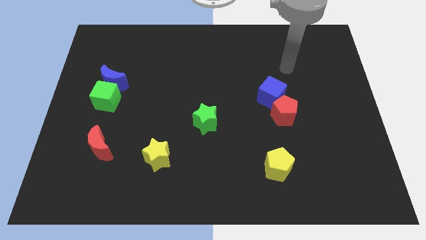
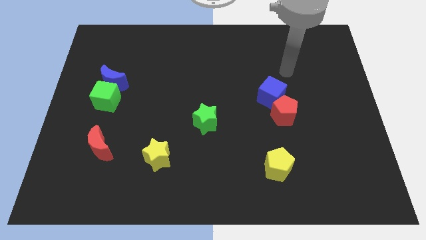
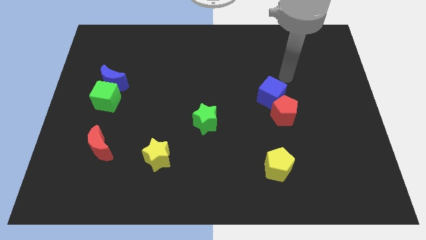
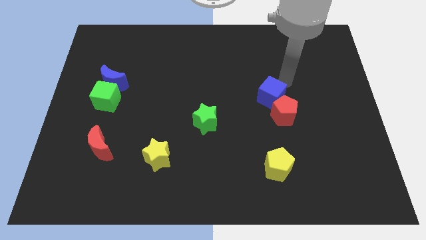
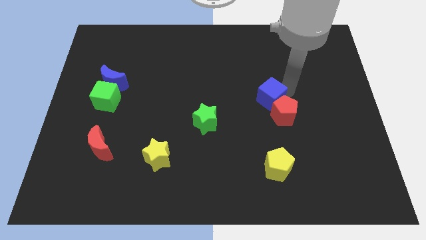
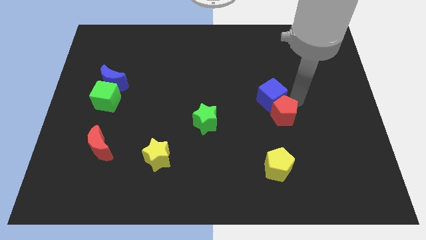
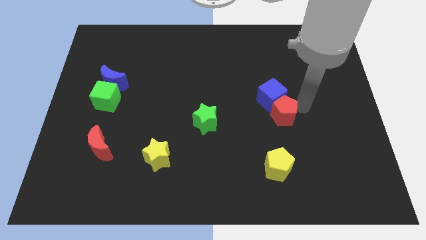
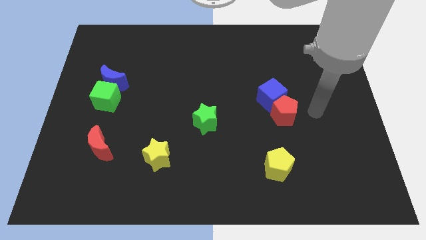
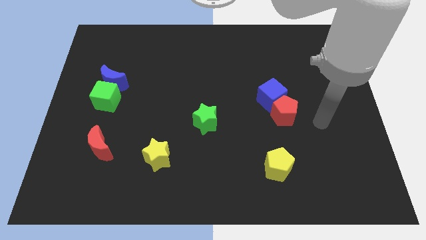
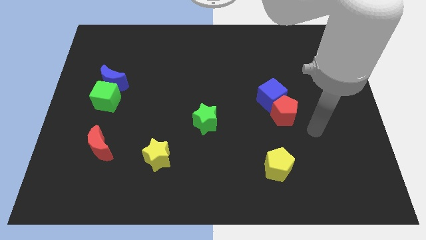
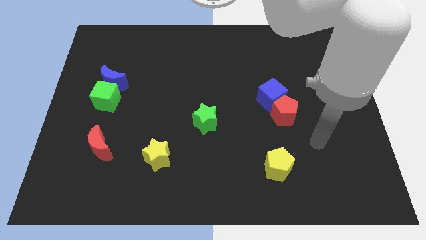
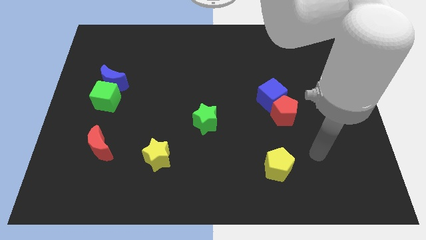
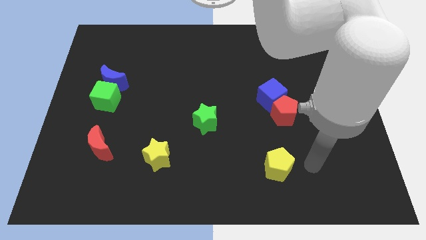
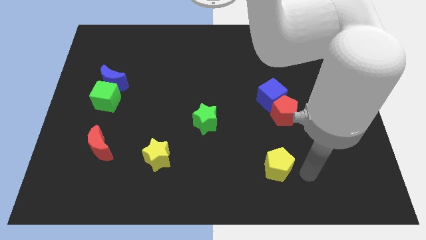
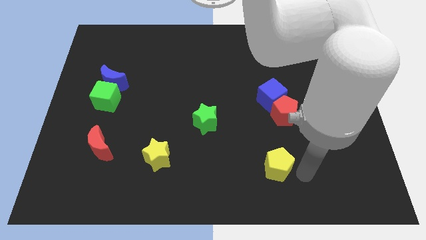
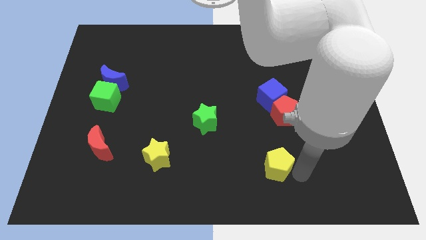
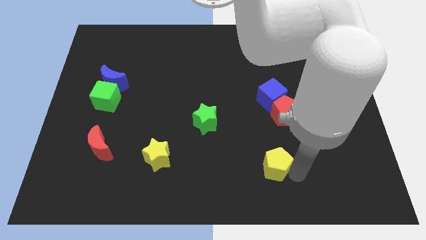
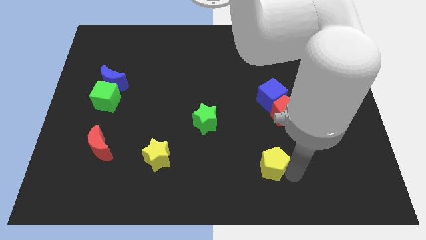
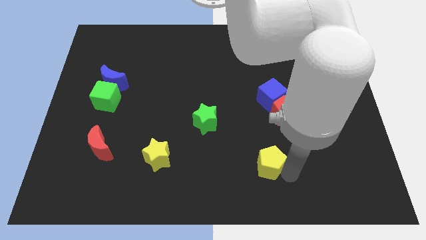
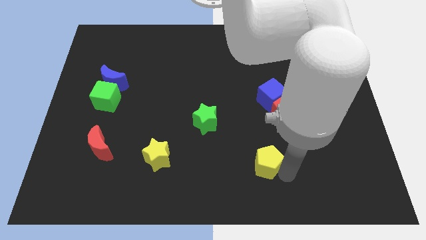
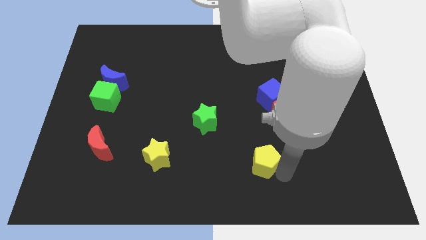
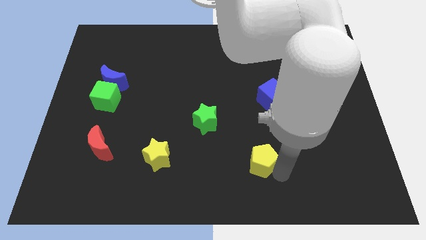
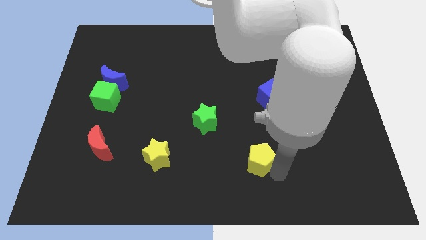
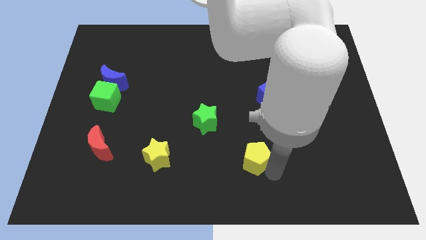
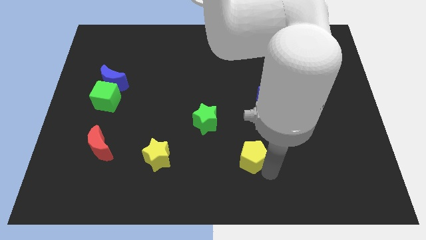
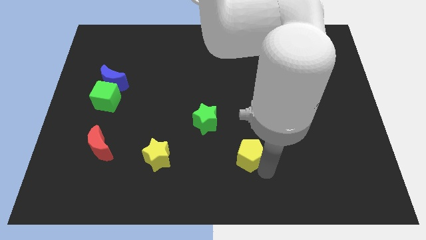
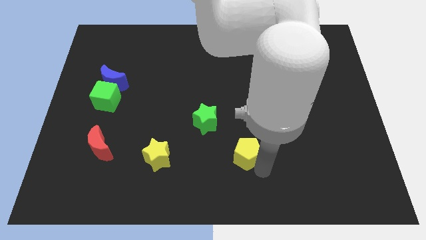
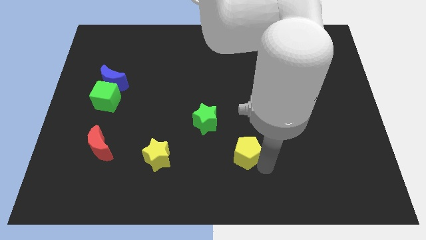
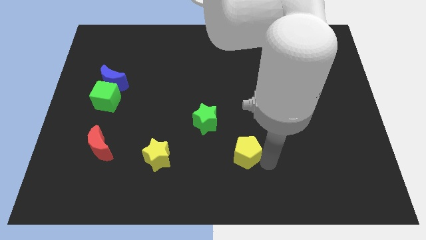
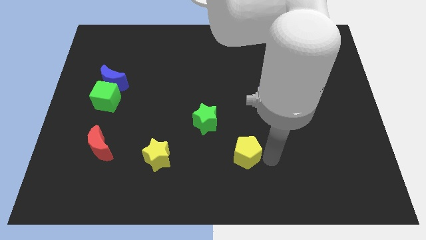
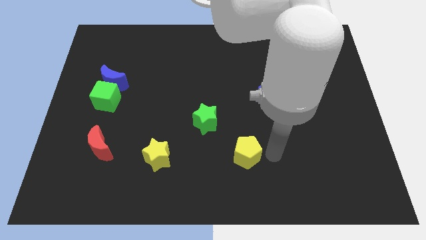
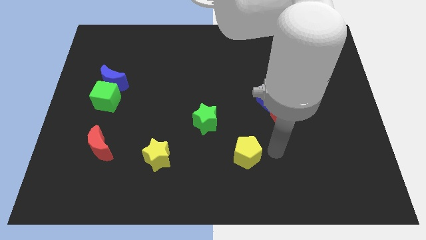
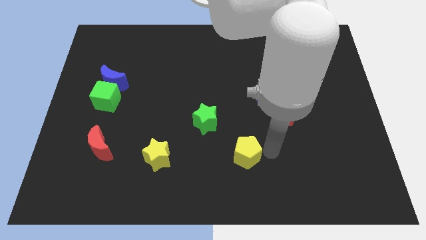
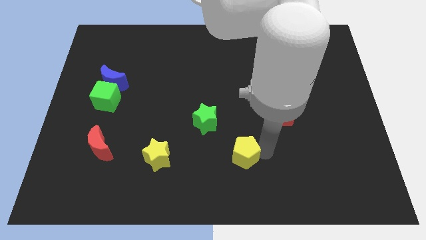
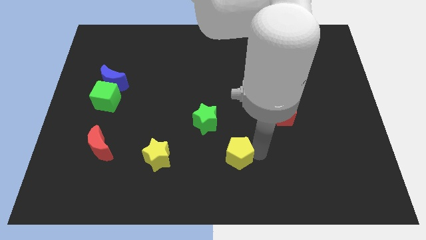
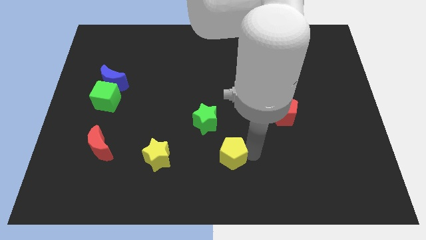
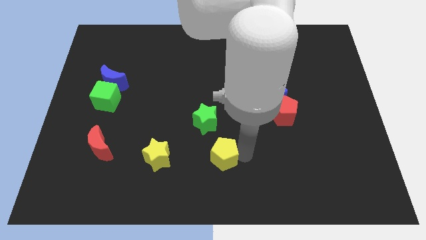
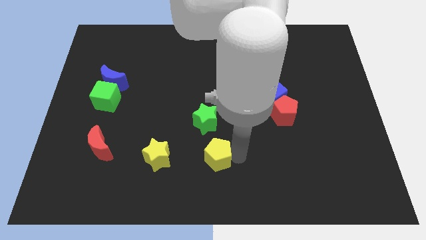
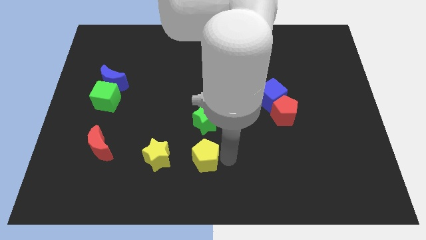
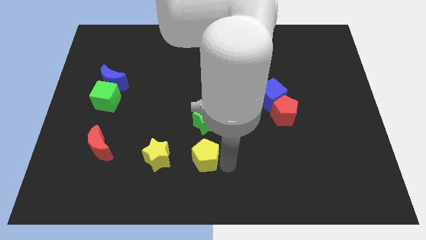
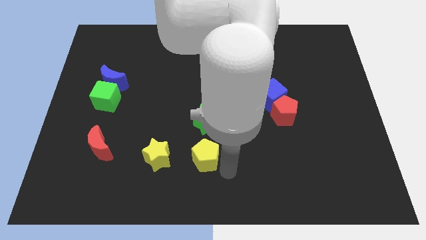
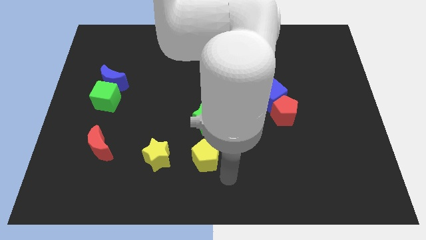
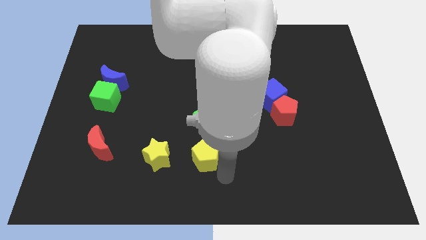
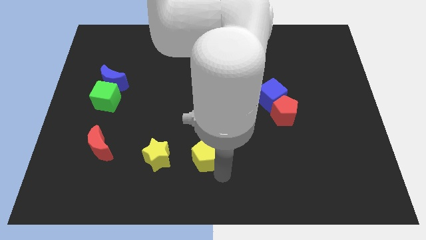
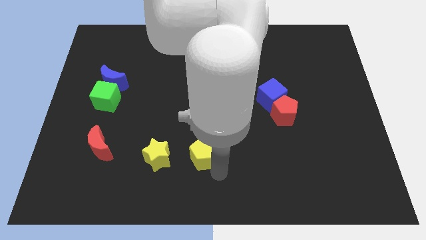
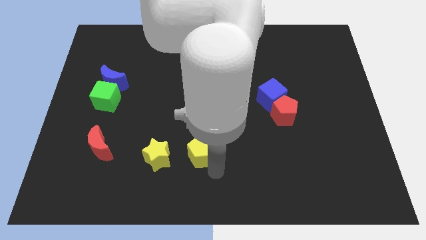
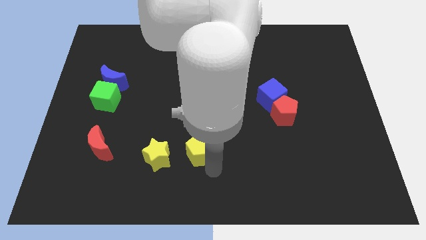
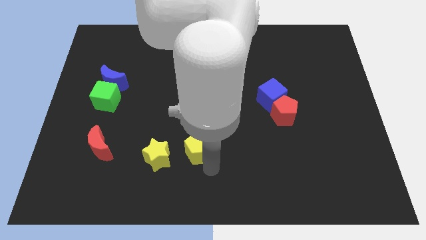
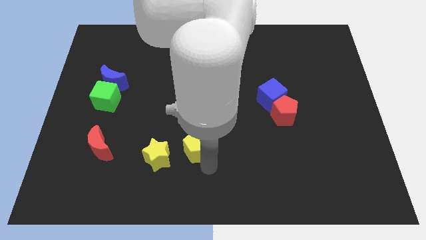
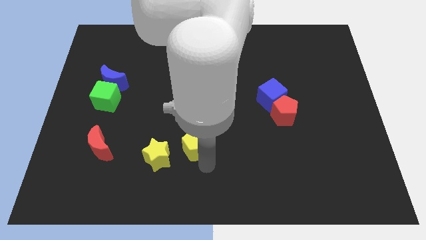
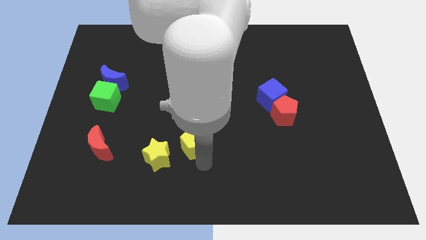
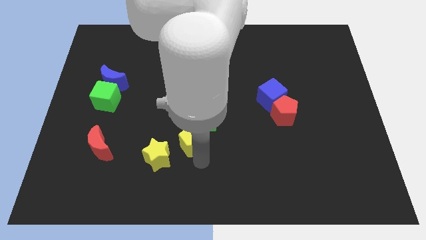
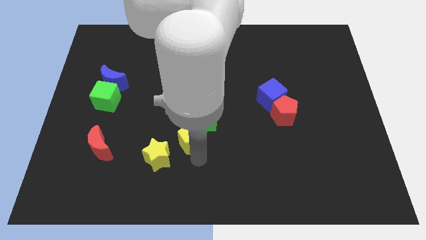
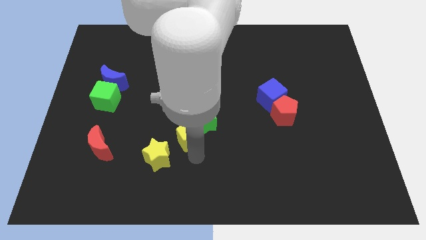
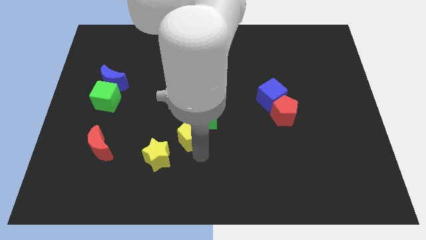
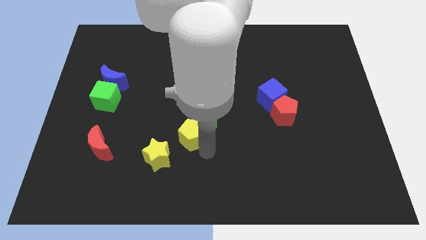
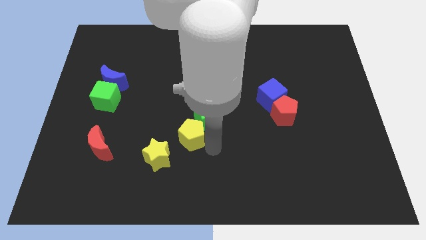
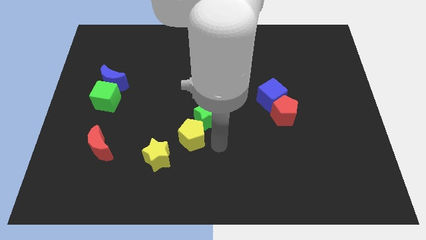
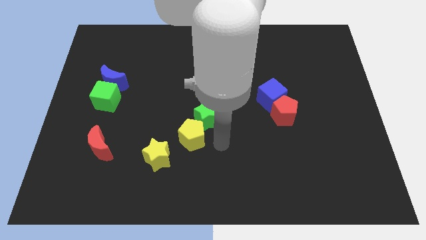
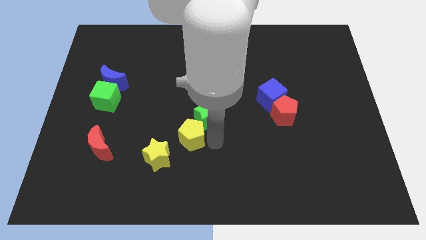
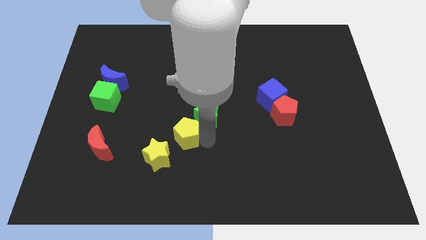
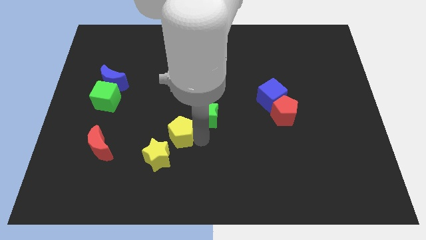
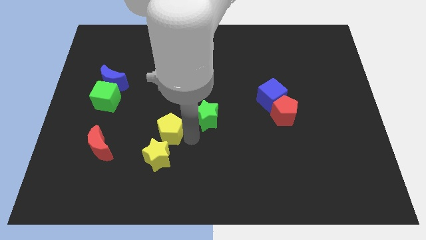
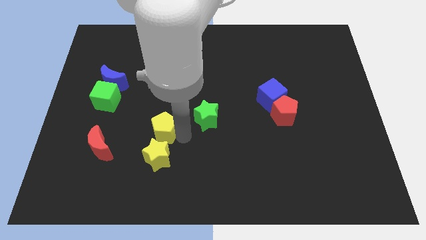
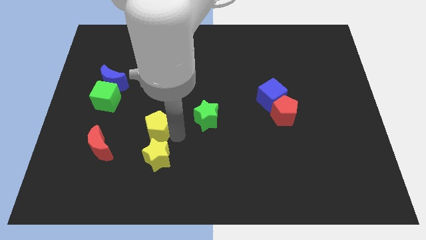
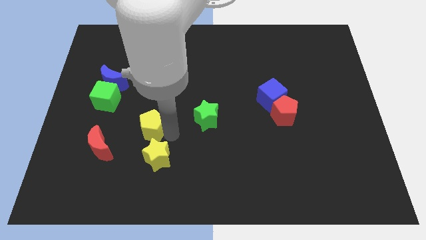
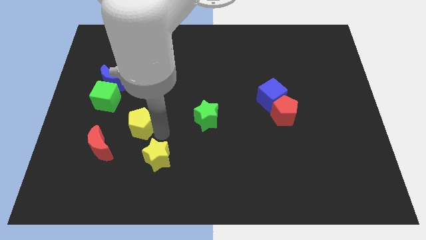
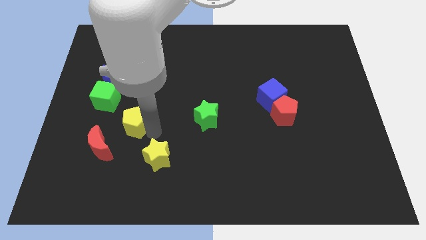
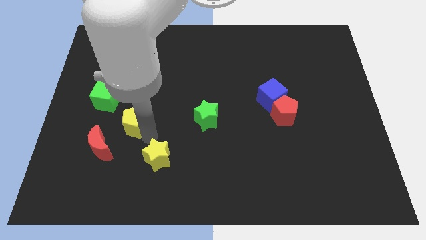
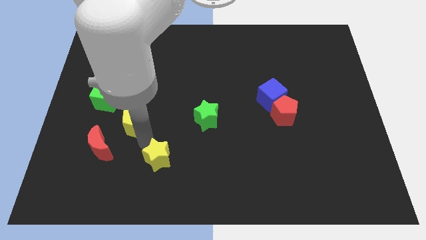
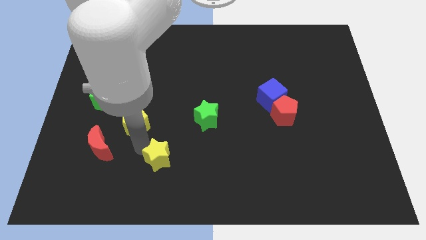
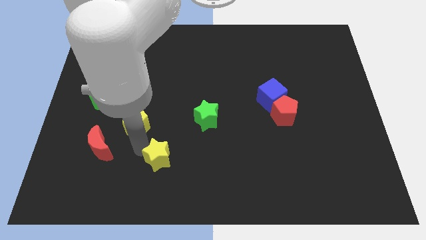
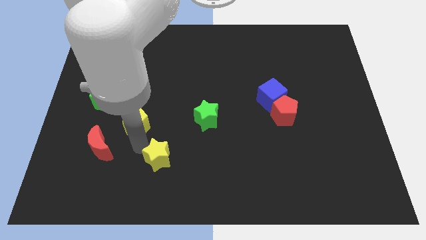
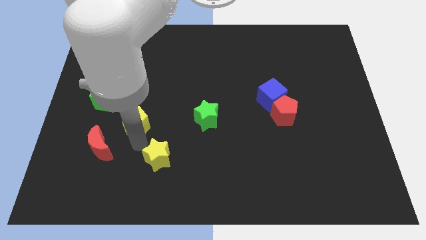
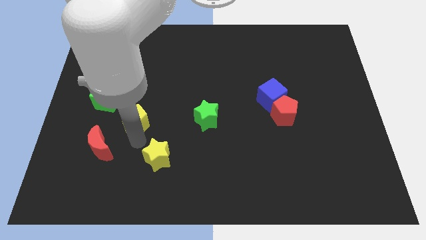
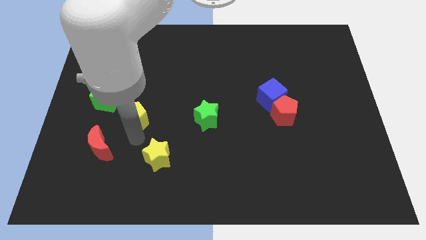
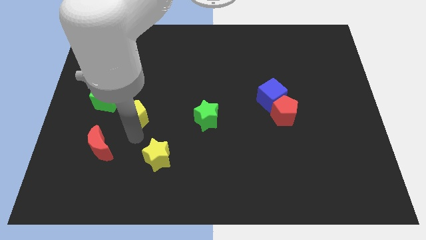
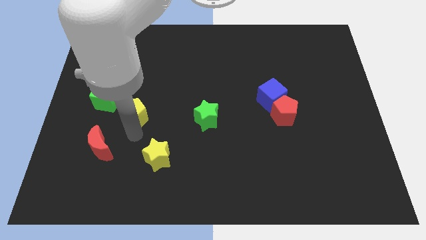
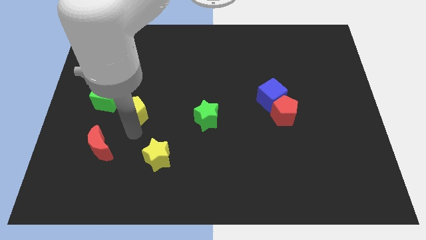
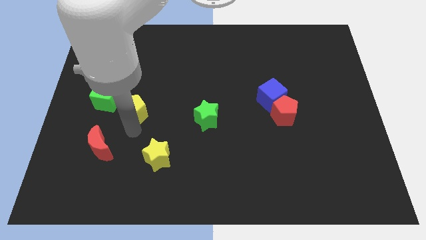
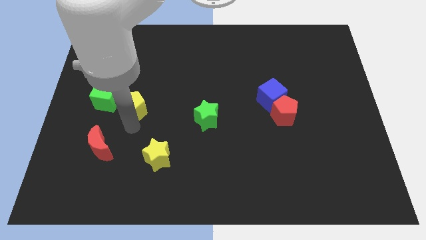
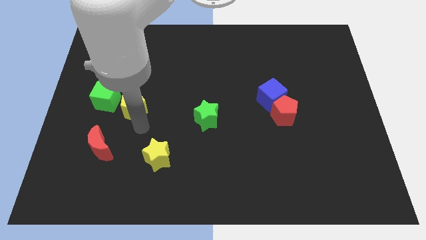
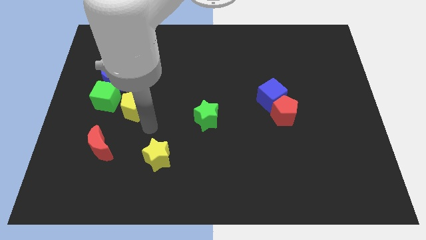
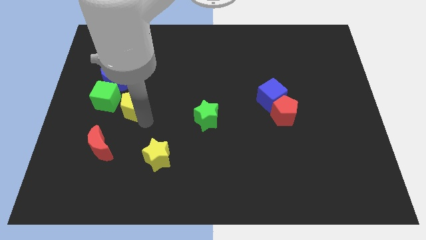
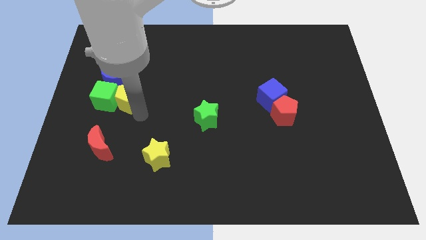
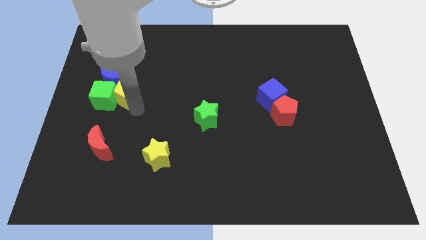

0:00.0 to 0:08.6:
move the yellow pentagon towards the blue moon
